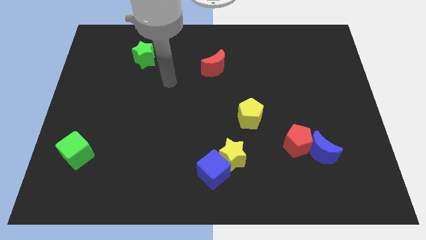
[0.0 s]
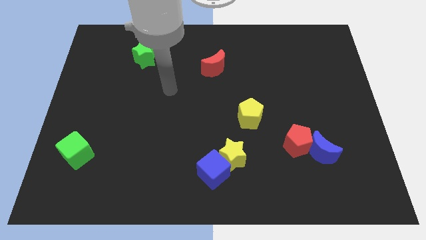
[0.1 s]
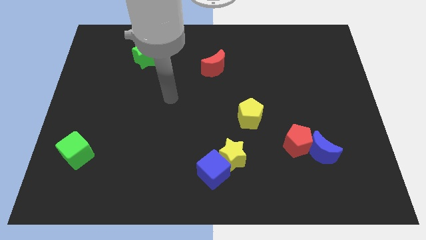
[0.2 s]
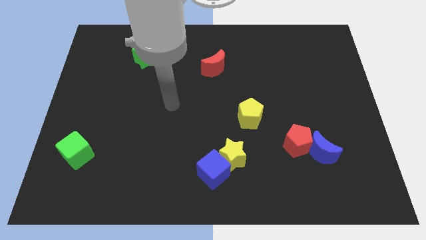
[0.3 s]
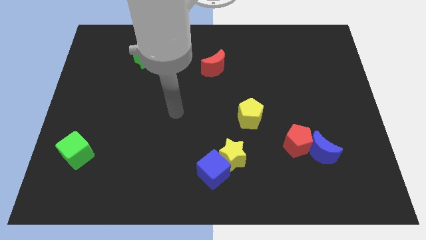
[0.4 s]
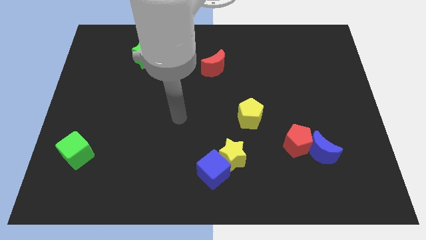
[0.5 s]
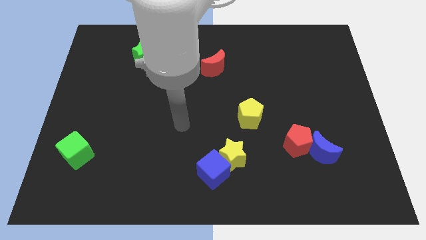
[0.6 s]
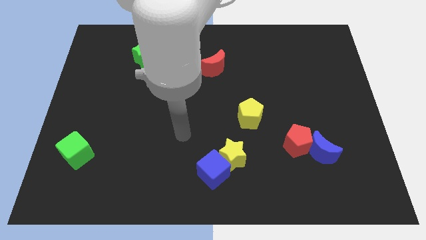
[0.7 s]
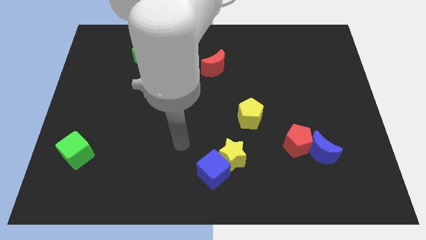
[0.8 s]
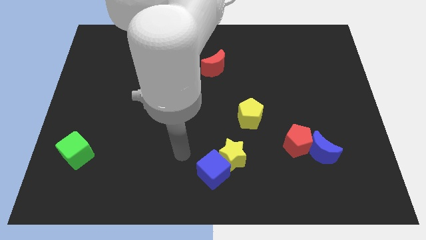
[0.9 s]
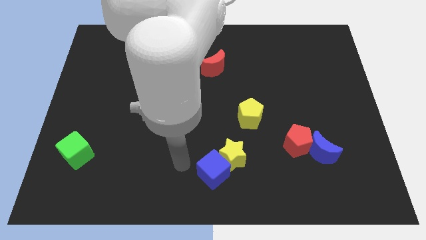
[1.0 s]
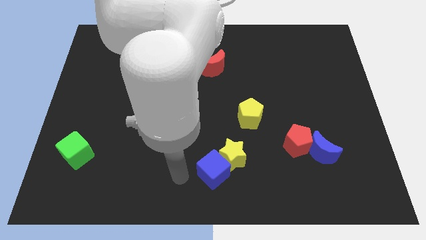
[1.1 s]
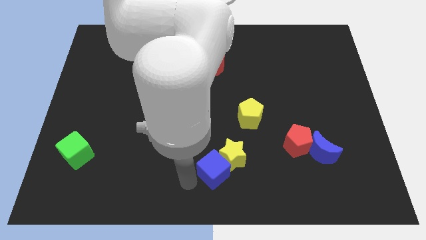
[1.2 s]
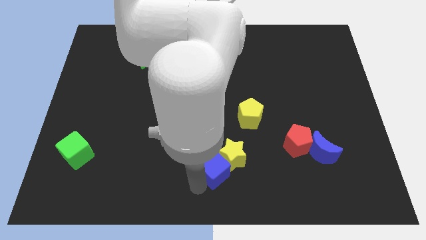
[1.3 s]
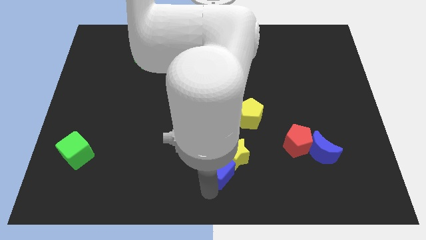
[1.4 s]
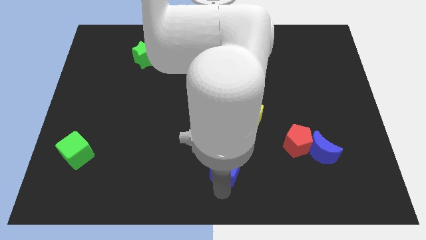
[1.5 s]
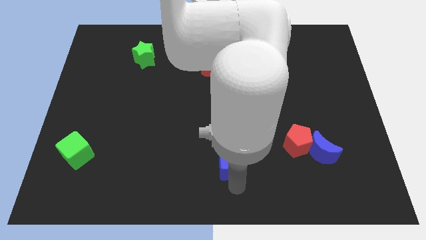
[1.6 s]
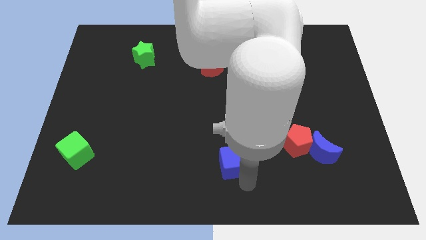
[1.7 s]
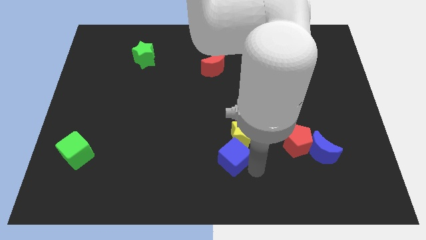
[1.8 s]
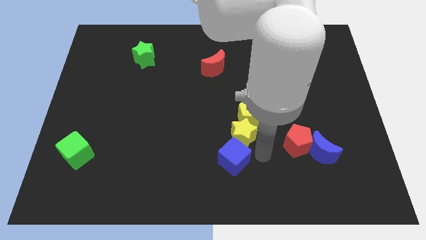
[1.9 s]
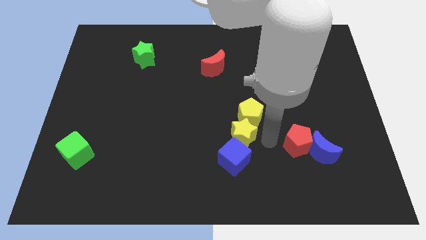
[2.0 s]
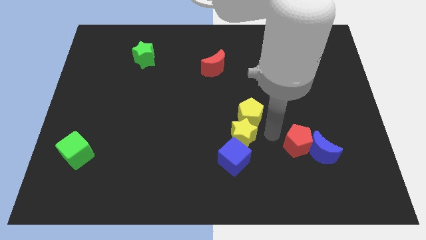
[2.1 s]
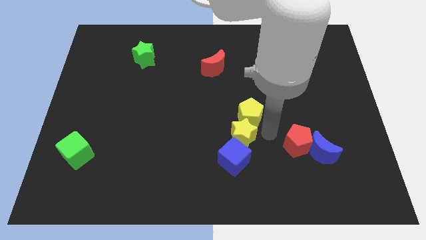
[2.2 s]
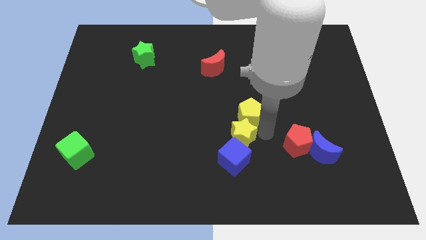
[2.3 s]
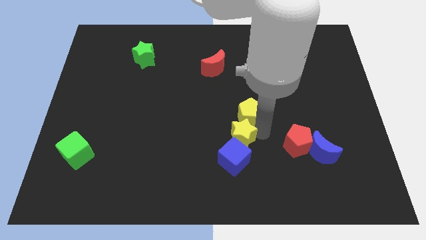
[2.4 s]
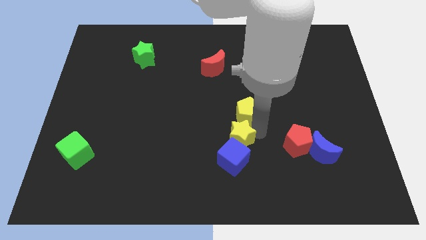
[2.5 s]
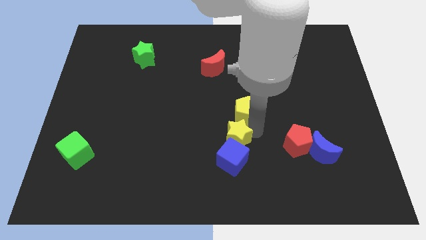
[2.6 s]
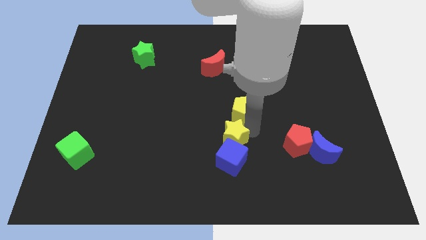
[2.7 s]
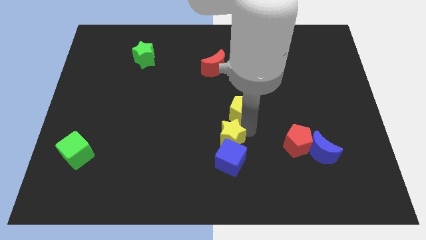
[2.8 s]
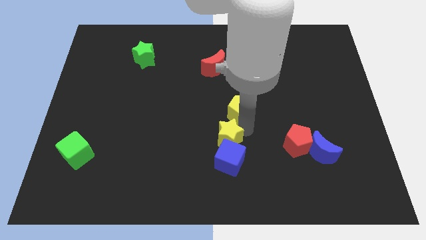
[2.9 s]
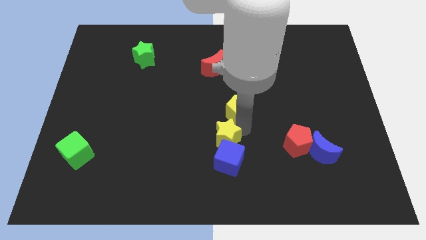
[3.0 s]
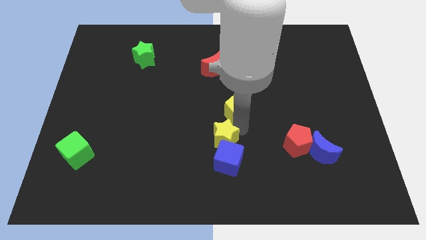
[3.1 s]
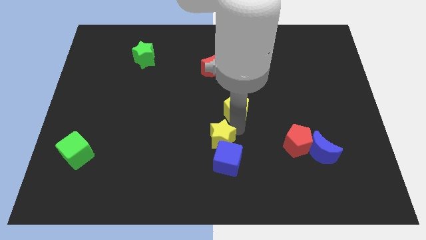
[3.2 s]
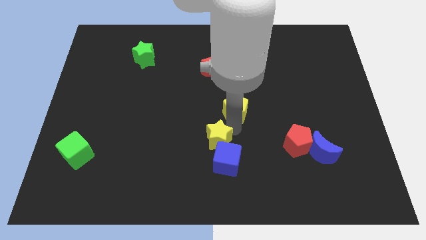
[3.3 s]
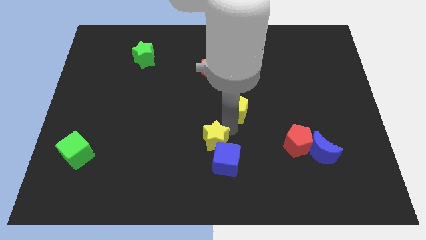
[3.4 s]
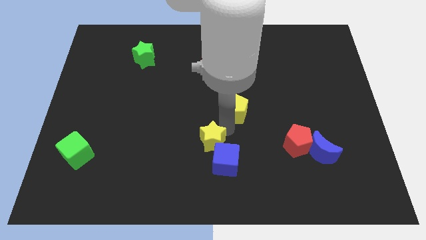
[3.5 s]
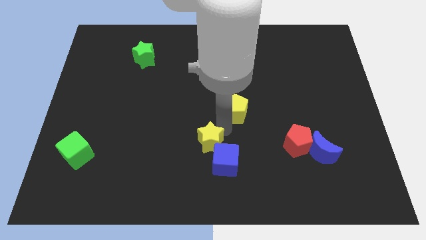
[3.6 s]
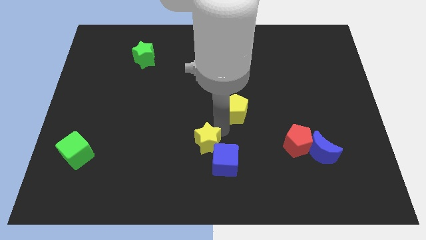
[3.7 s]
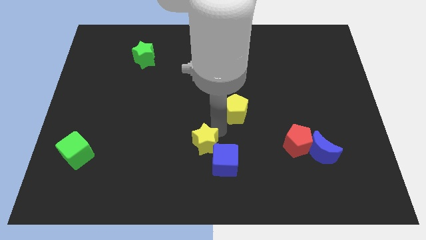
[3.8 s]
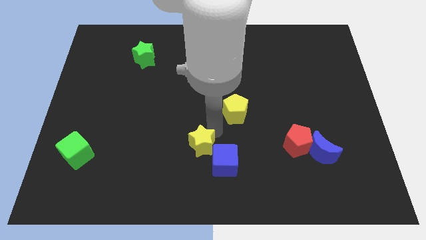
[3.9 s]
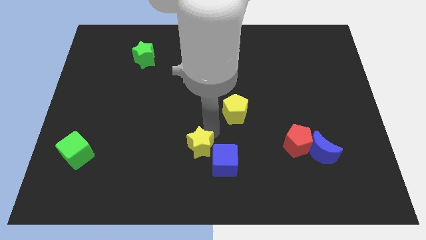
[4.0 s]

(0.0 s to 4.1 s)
move the yellow star somewhat left

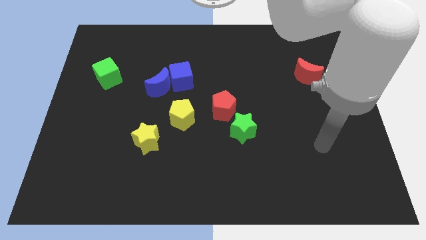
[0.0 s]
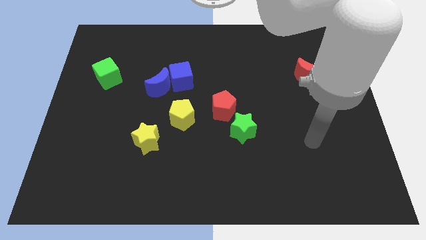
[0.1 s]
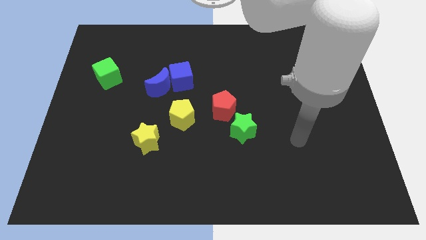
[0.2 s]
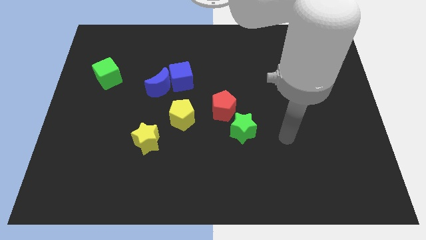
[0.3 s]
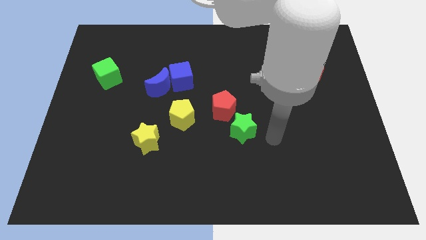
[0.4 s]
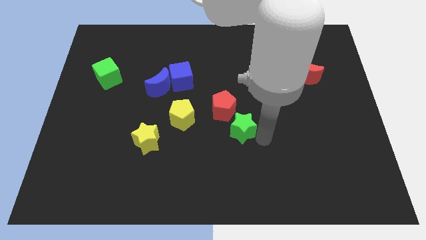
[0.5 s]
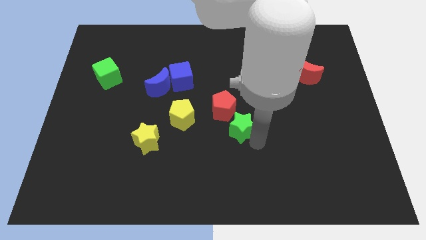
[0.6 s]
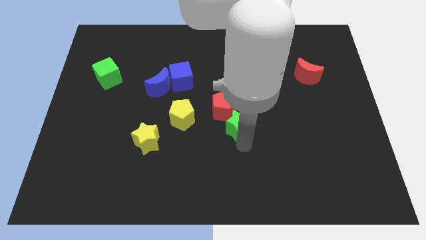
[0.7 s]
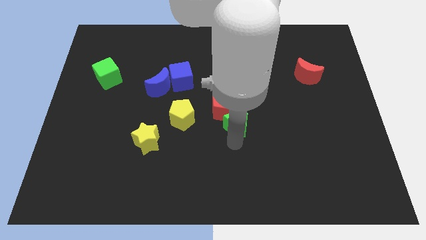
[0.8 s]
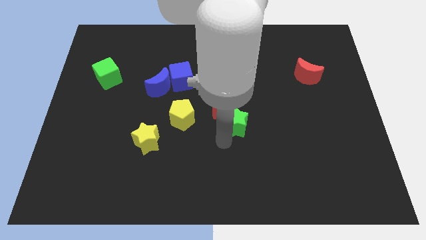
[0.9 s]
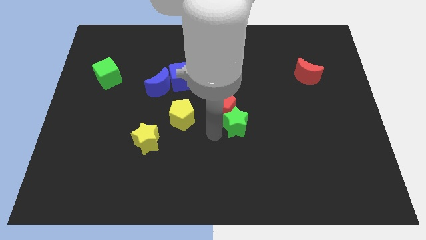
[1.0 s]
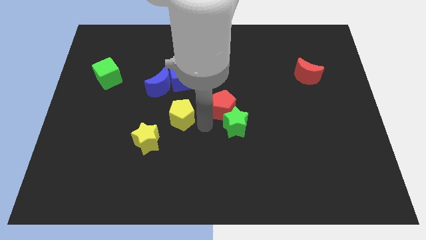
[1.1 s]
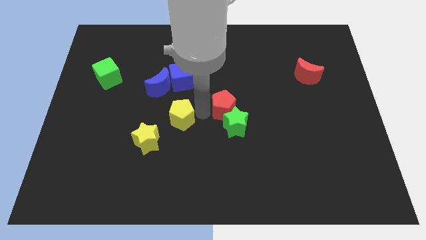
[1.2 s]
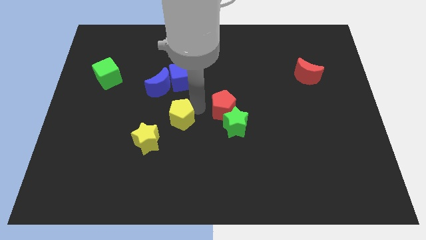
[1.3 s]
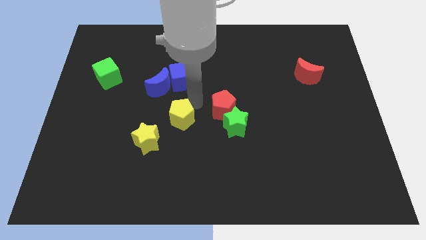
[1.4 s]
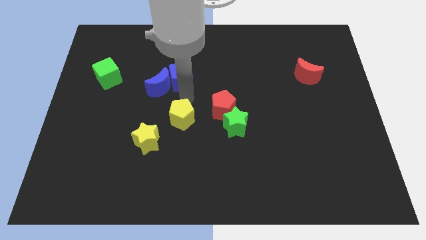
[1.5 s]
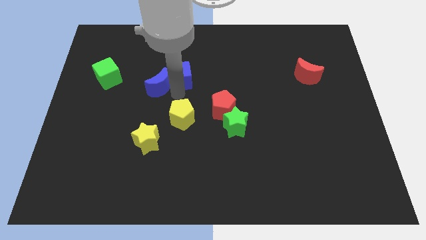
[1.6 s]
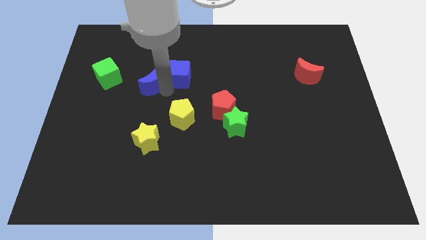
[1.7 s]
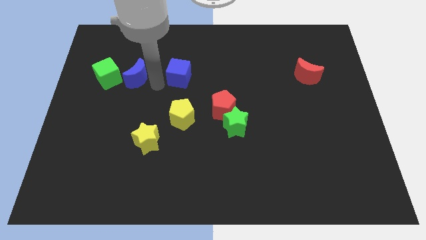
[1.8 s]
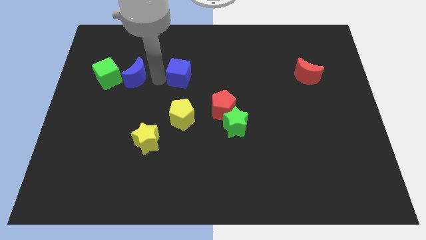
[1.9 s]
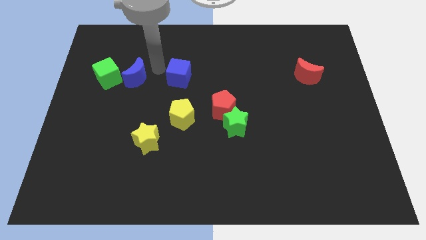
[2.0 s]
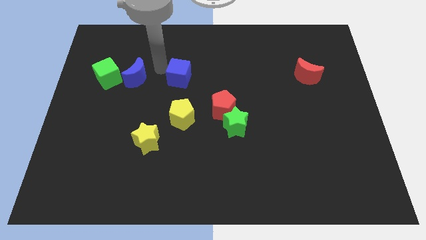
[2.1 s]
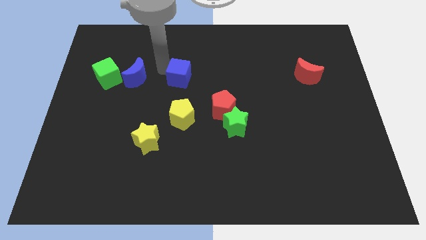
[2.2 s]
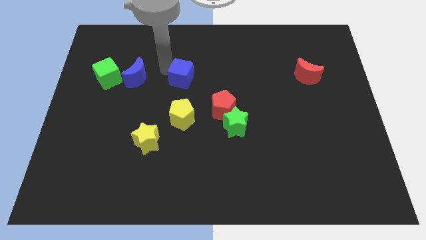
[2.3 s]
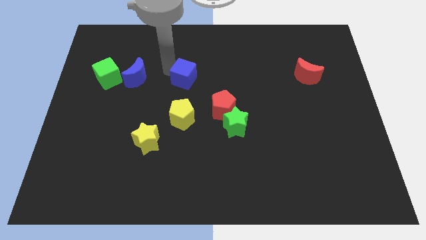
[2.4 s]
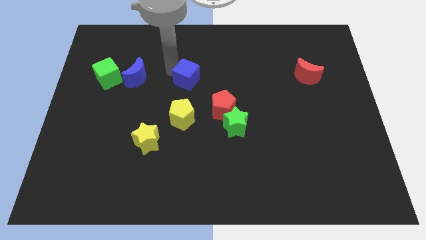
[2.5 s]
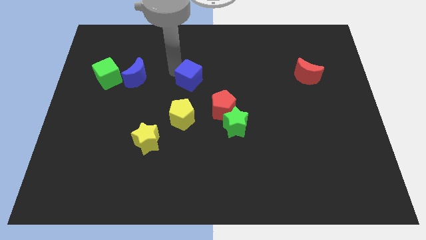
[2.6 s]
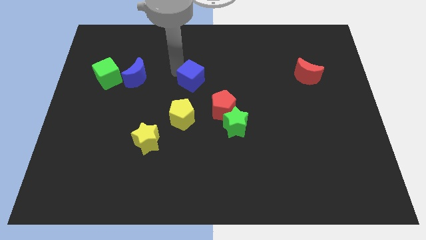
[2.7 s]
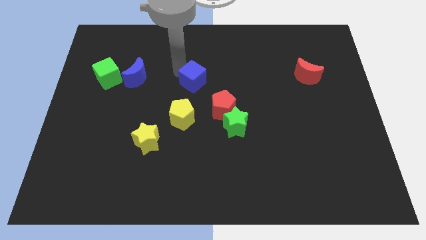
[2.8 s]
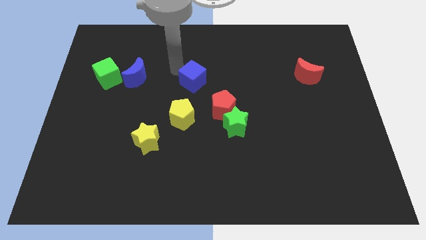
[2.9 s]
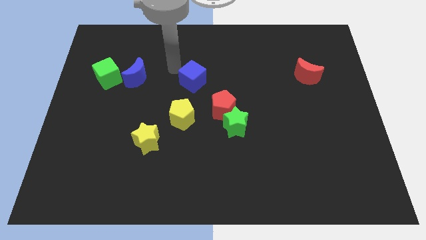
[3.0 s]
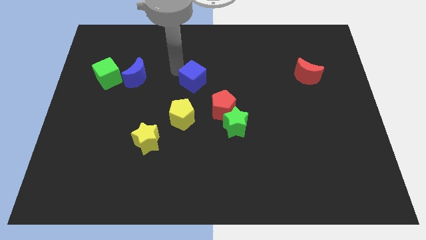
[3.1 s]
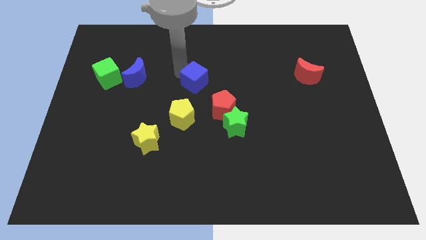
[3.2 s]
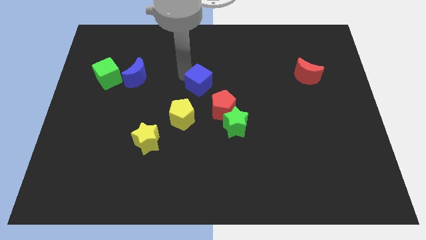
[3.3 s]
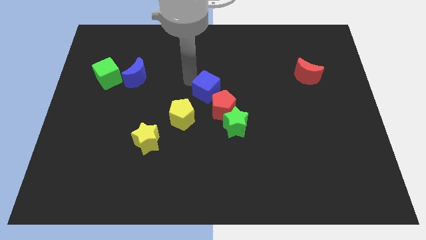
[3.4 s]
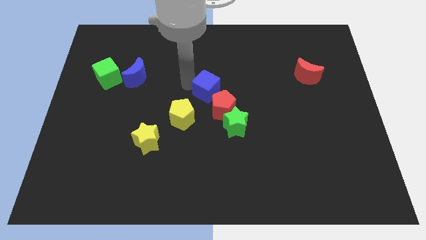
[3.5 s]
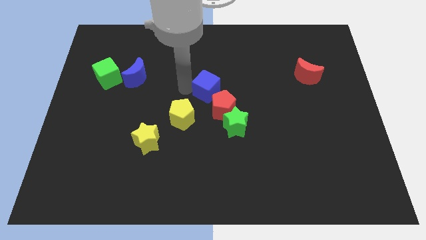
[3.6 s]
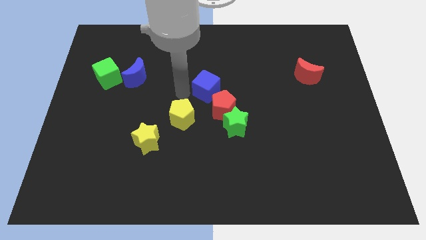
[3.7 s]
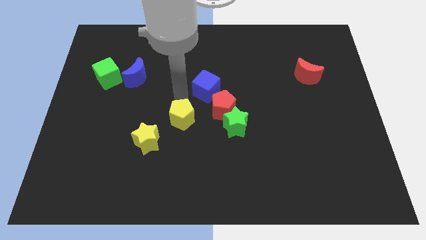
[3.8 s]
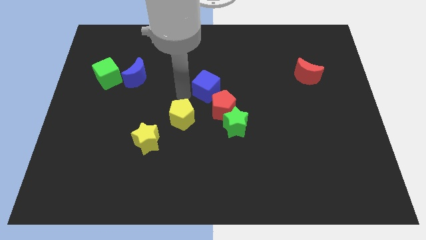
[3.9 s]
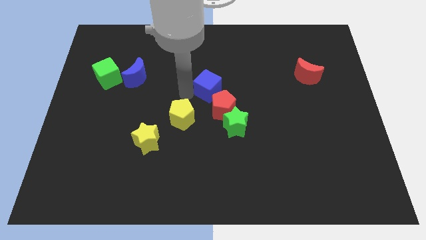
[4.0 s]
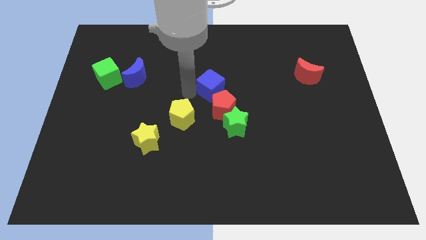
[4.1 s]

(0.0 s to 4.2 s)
slide the blue cube a bit to the right
